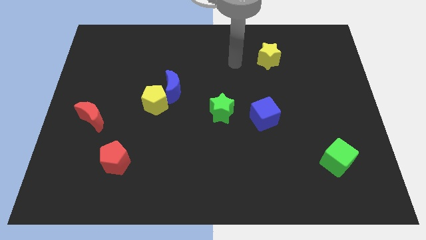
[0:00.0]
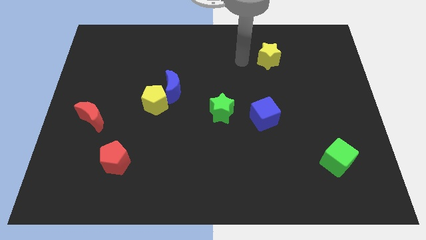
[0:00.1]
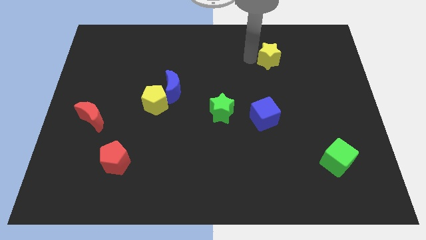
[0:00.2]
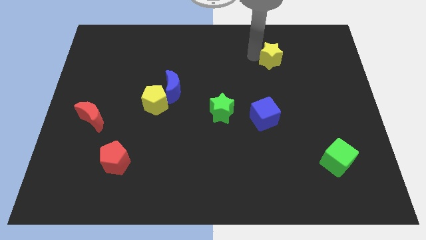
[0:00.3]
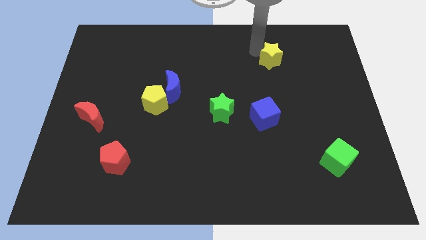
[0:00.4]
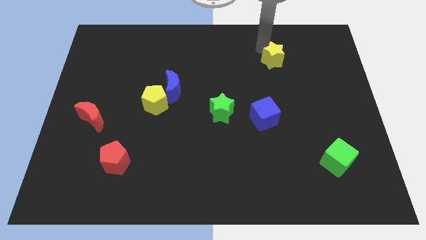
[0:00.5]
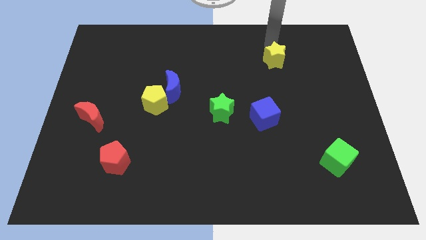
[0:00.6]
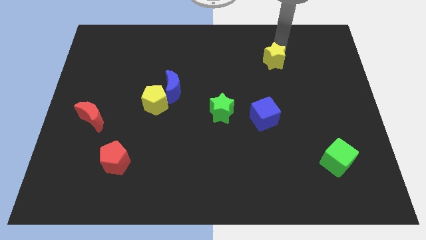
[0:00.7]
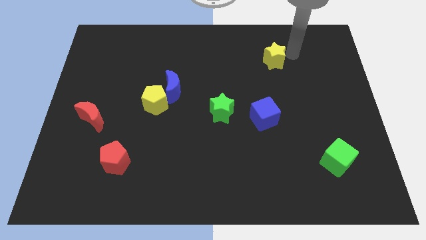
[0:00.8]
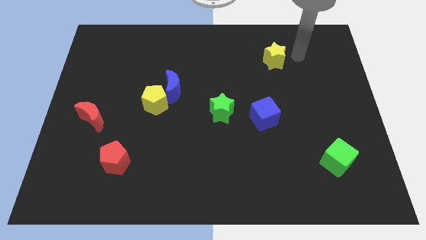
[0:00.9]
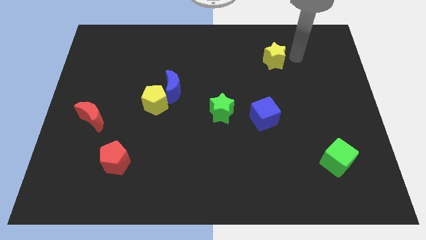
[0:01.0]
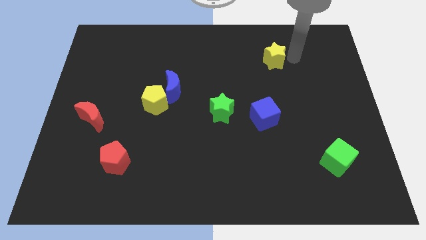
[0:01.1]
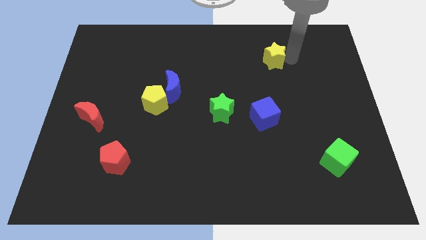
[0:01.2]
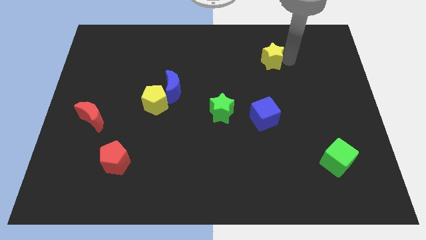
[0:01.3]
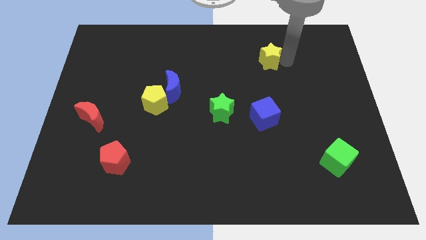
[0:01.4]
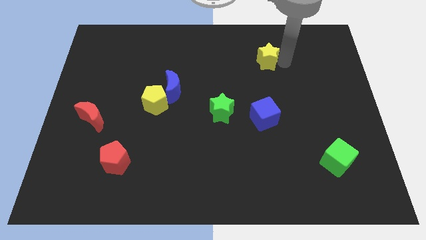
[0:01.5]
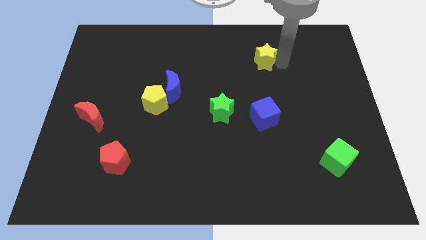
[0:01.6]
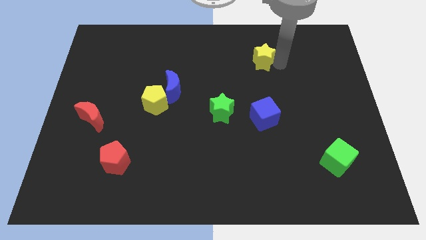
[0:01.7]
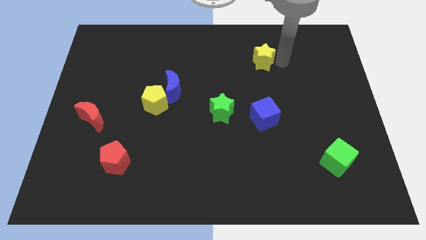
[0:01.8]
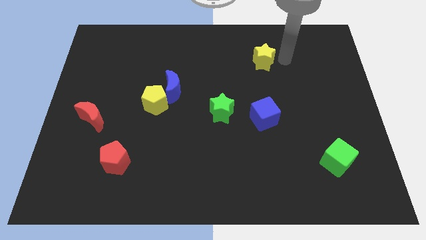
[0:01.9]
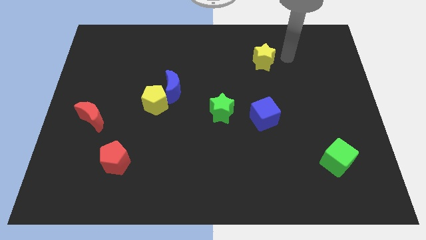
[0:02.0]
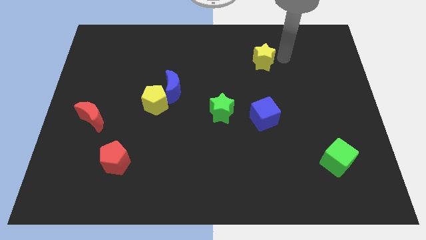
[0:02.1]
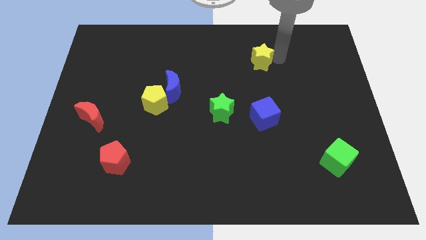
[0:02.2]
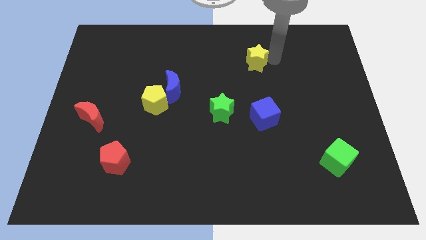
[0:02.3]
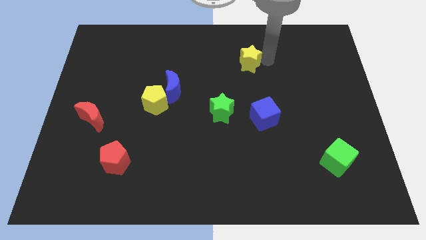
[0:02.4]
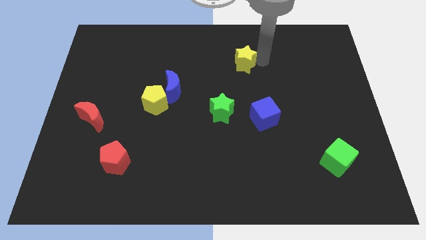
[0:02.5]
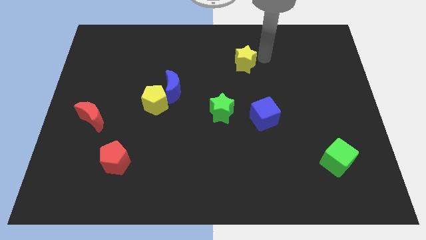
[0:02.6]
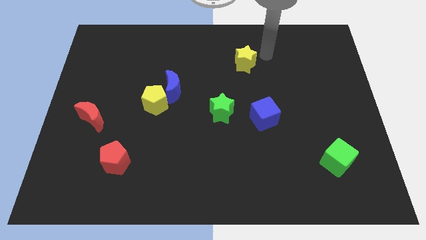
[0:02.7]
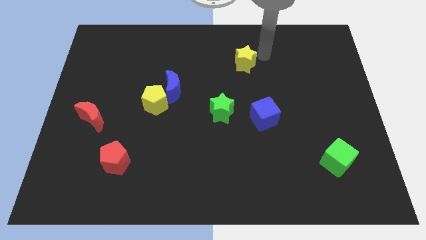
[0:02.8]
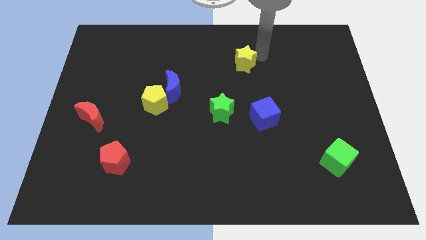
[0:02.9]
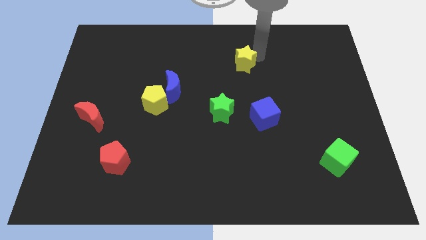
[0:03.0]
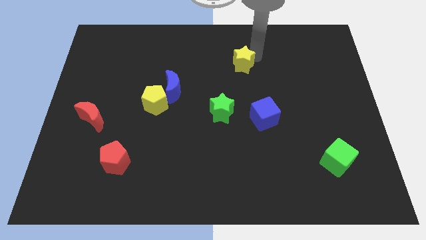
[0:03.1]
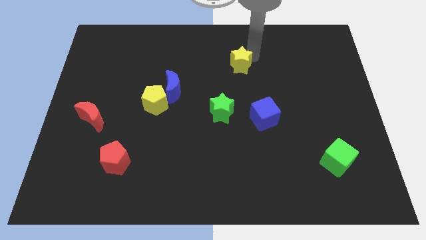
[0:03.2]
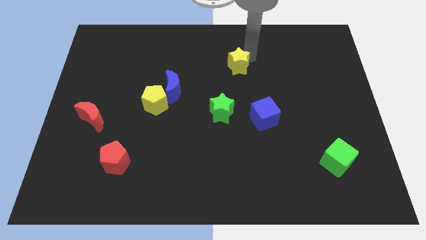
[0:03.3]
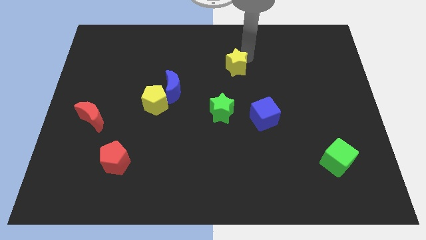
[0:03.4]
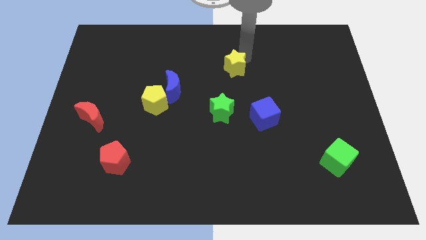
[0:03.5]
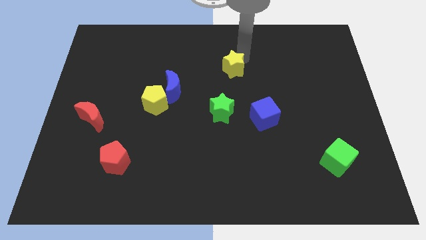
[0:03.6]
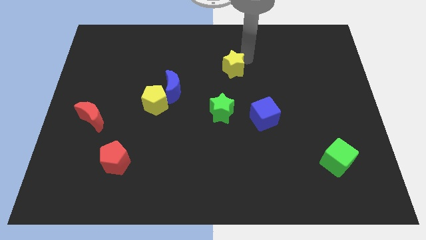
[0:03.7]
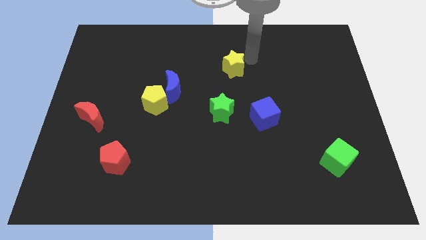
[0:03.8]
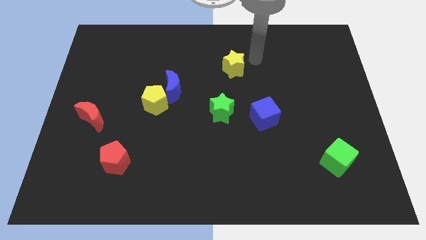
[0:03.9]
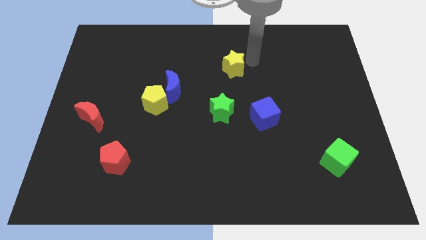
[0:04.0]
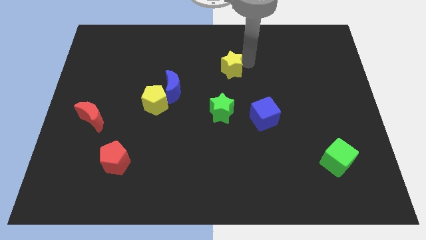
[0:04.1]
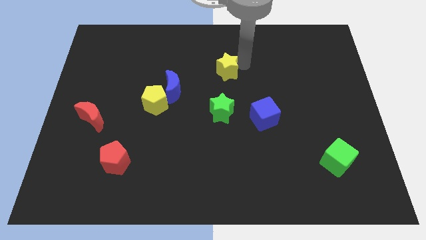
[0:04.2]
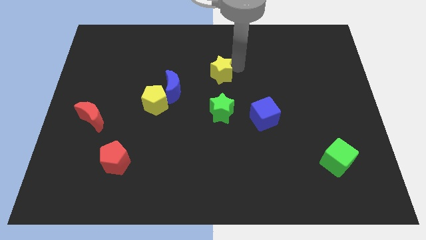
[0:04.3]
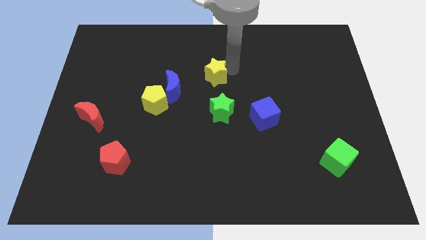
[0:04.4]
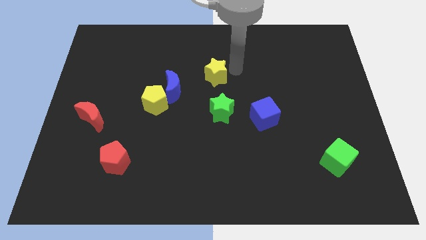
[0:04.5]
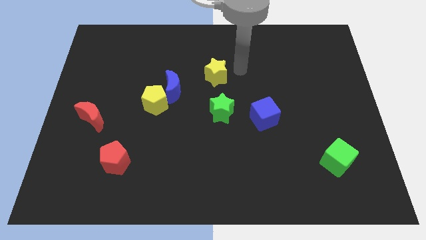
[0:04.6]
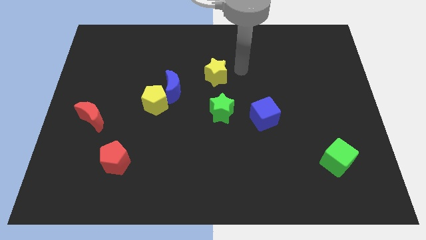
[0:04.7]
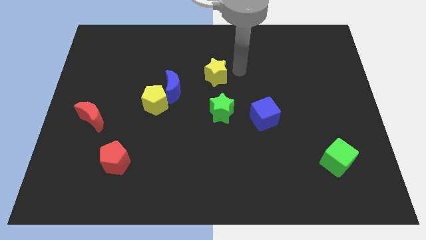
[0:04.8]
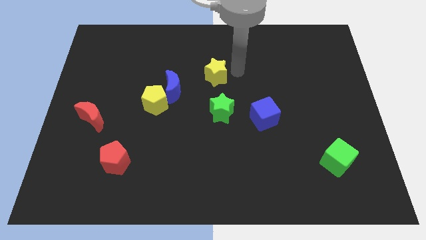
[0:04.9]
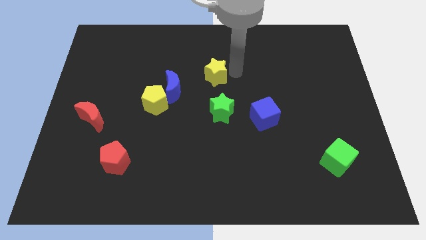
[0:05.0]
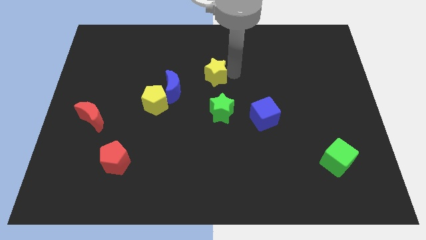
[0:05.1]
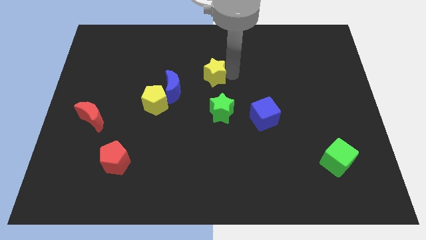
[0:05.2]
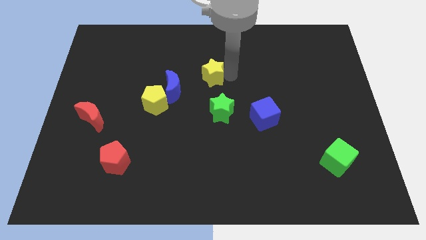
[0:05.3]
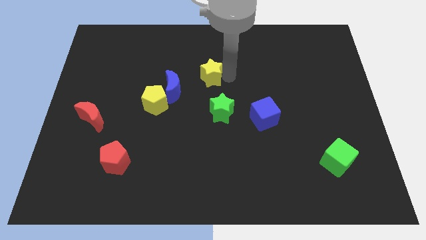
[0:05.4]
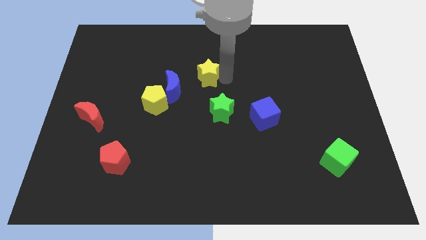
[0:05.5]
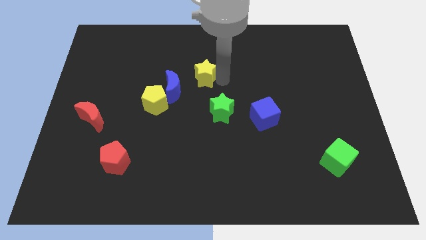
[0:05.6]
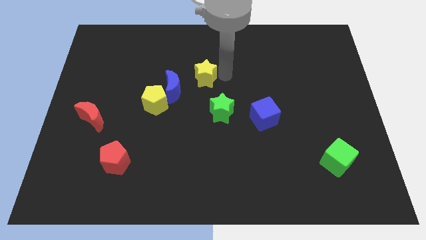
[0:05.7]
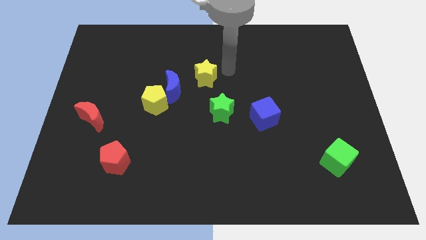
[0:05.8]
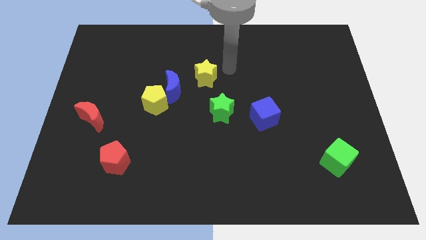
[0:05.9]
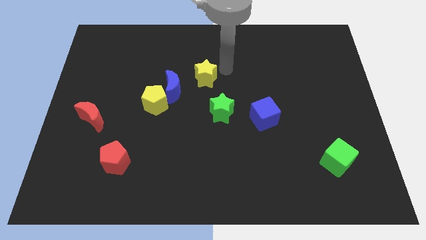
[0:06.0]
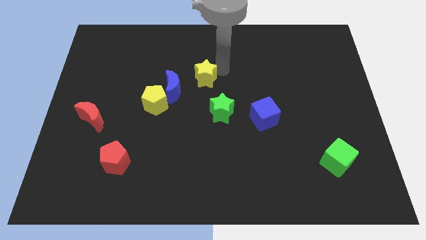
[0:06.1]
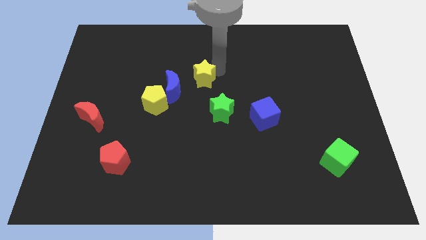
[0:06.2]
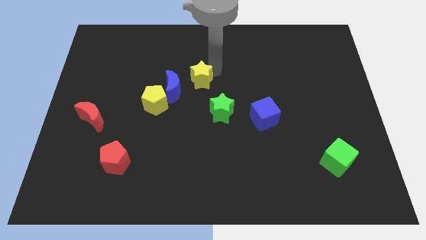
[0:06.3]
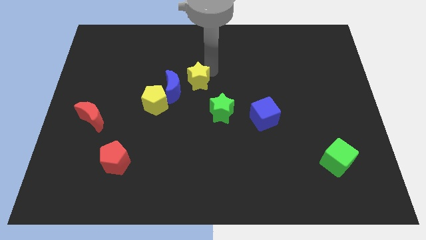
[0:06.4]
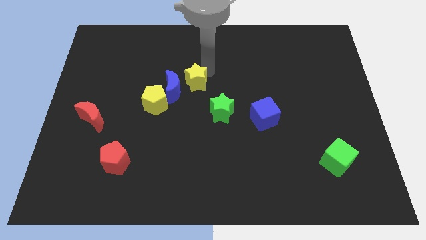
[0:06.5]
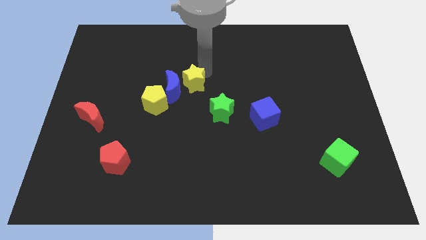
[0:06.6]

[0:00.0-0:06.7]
slide the yellow star towards the blue moon

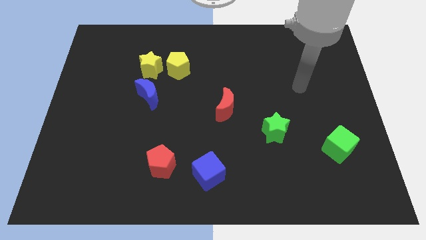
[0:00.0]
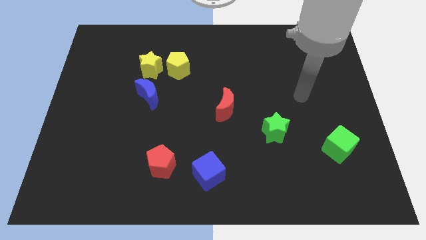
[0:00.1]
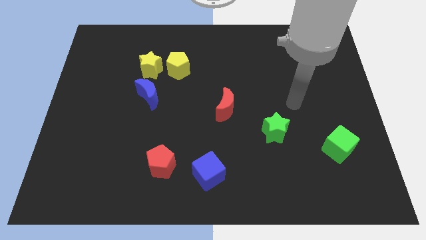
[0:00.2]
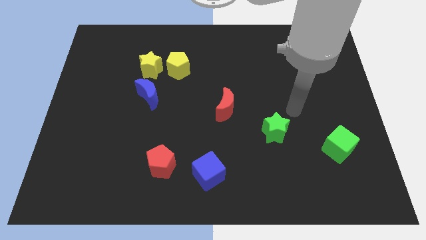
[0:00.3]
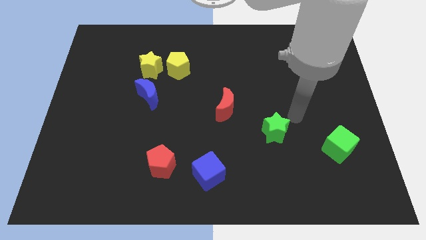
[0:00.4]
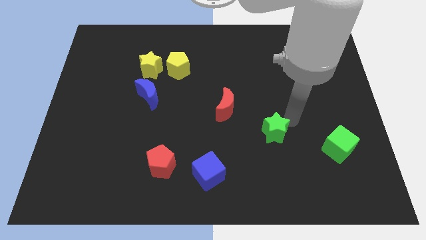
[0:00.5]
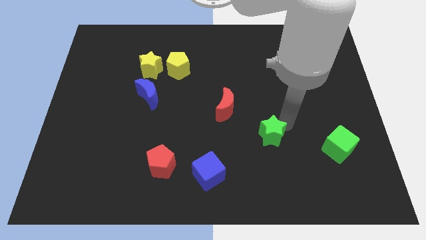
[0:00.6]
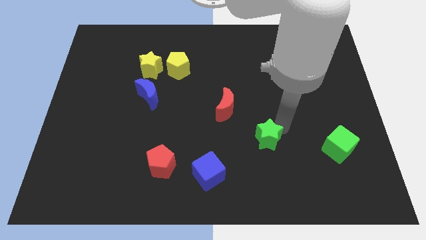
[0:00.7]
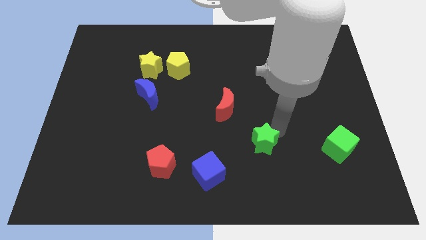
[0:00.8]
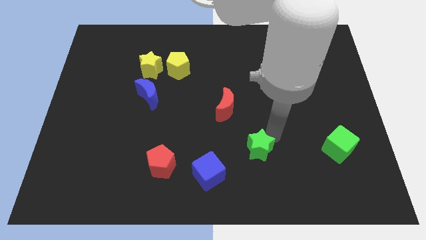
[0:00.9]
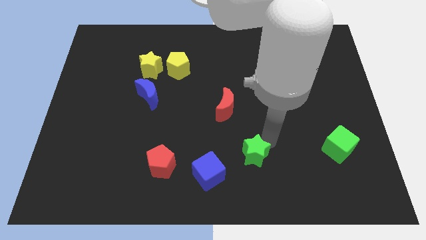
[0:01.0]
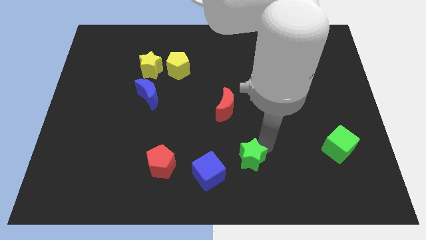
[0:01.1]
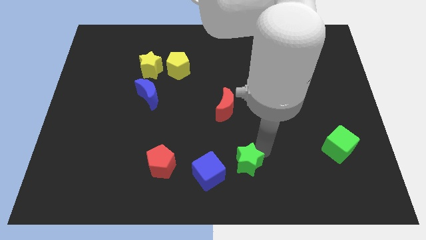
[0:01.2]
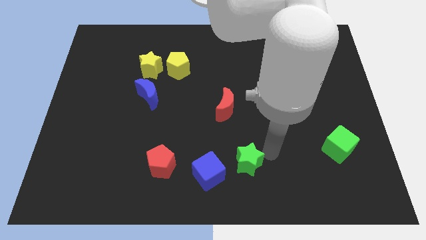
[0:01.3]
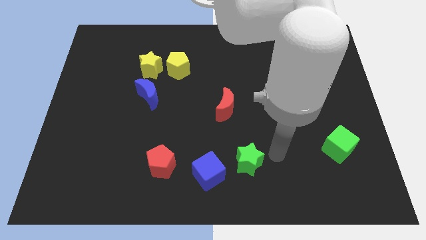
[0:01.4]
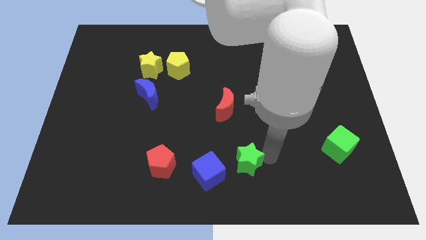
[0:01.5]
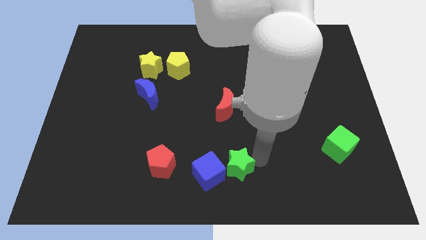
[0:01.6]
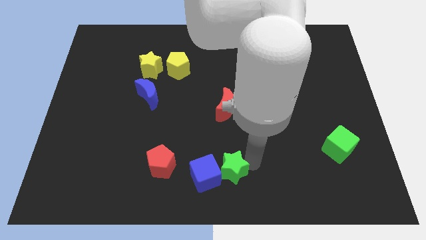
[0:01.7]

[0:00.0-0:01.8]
slide the green star close to the blue cube
